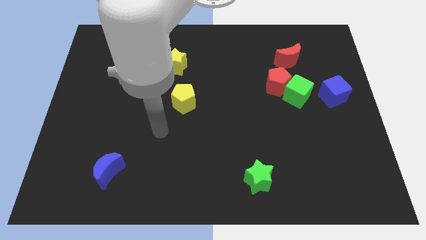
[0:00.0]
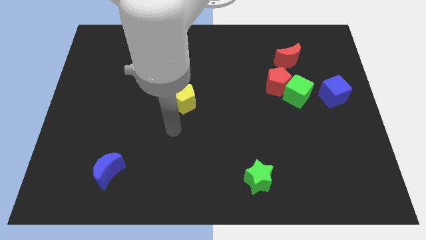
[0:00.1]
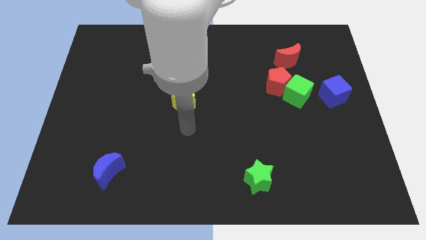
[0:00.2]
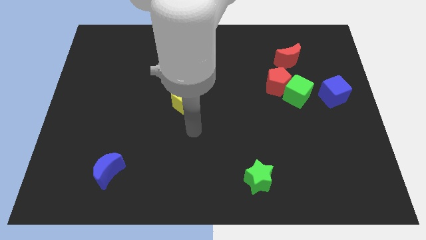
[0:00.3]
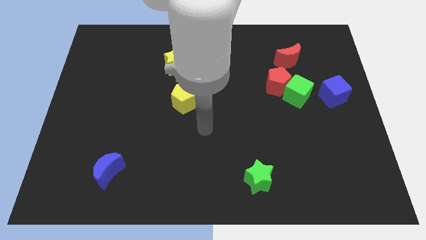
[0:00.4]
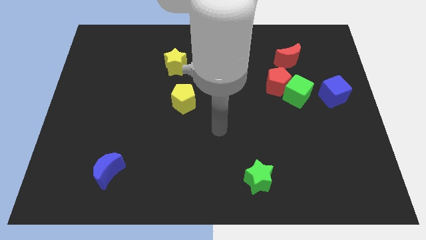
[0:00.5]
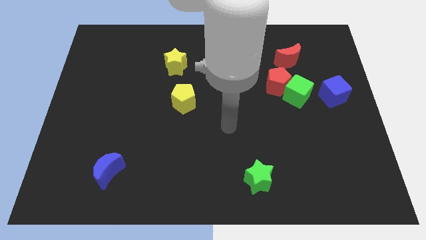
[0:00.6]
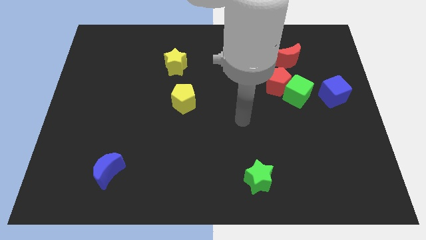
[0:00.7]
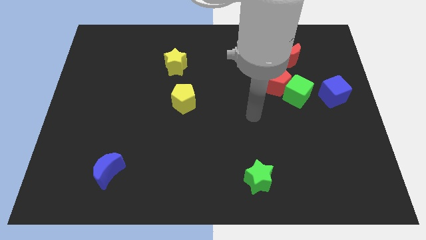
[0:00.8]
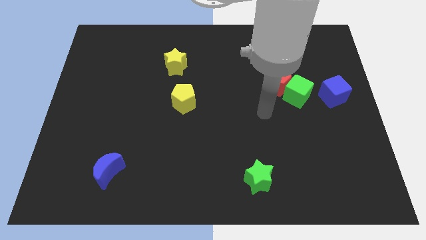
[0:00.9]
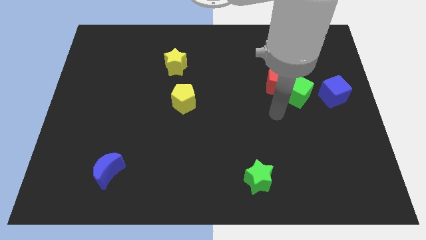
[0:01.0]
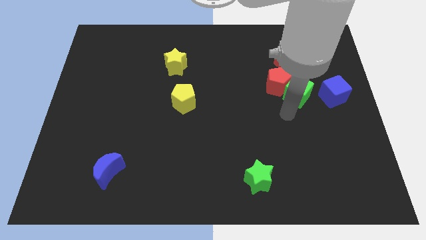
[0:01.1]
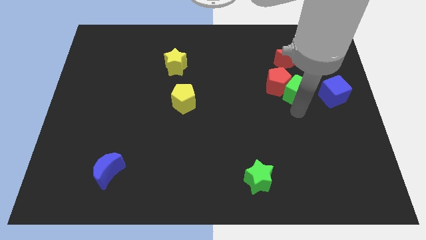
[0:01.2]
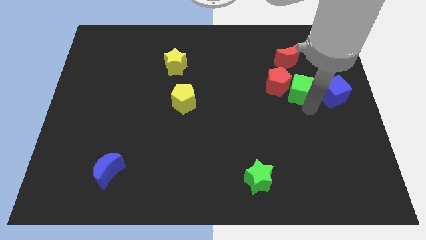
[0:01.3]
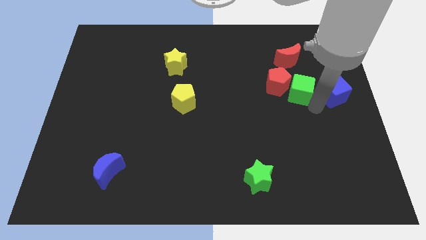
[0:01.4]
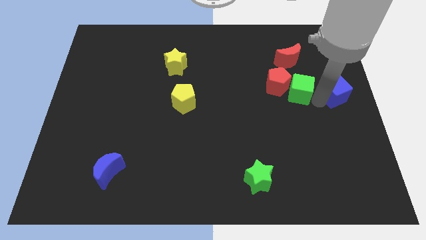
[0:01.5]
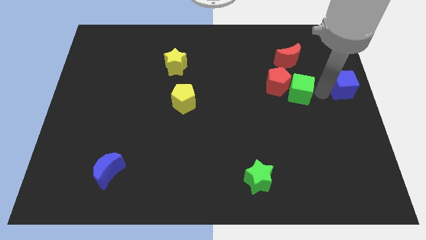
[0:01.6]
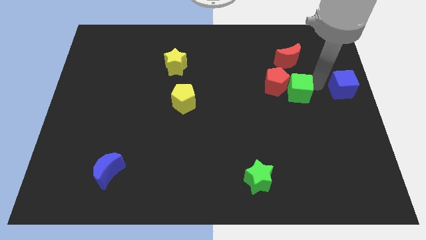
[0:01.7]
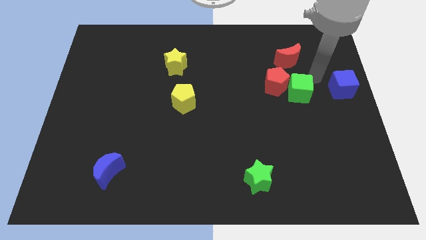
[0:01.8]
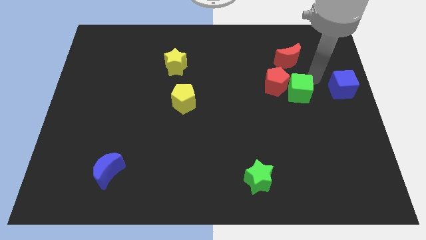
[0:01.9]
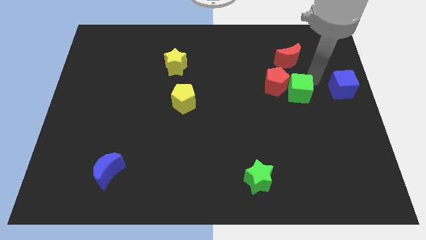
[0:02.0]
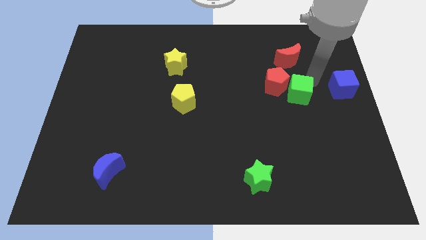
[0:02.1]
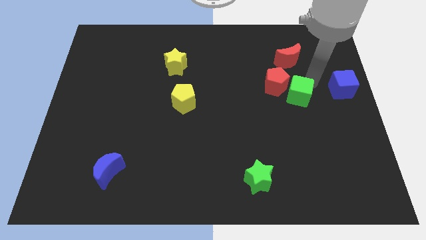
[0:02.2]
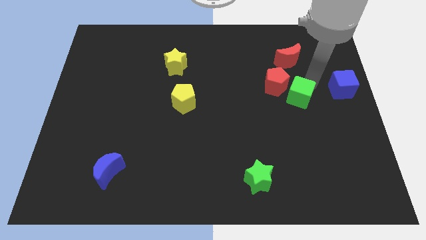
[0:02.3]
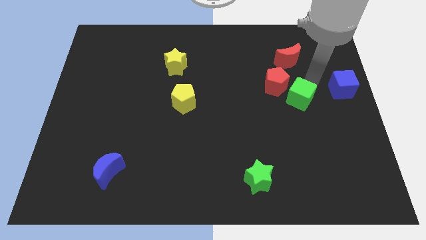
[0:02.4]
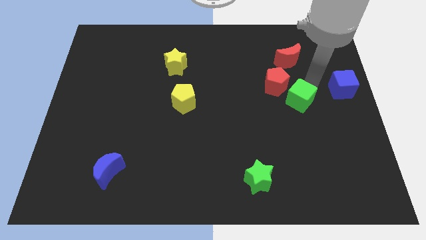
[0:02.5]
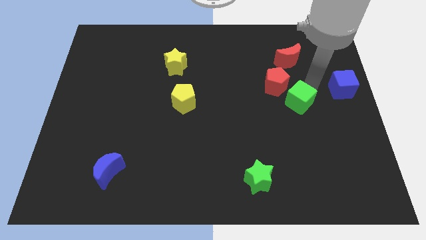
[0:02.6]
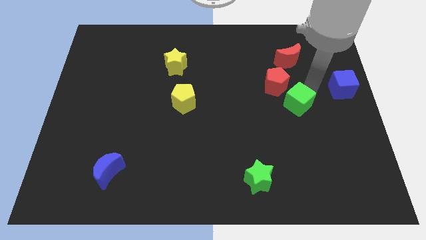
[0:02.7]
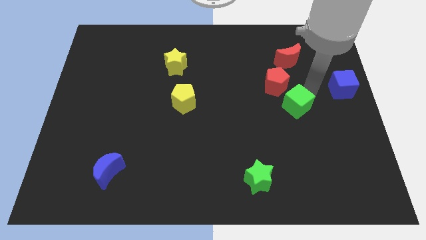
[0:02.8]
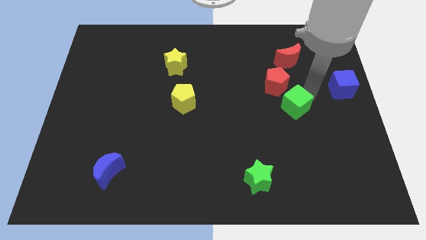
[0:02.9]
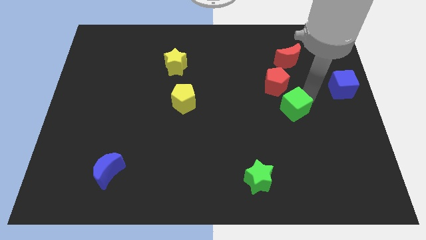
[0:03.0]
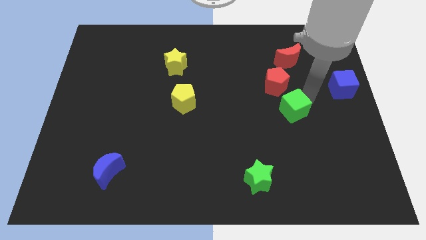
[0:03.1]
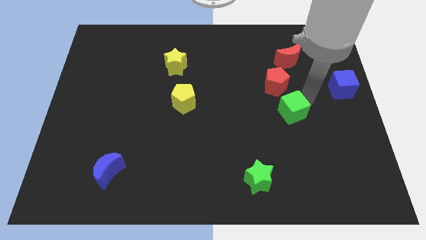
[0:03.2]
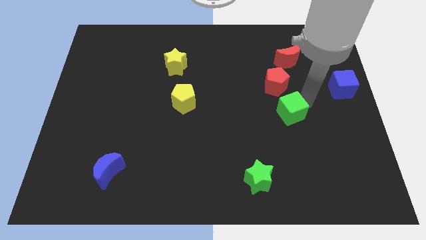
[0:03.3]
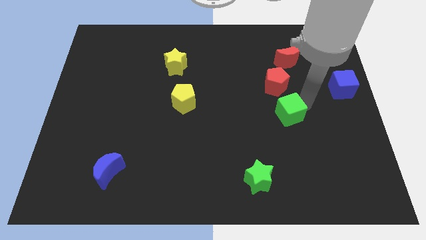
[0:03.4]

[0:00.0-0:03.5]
separate the green cube from the red pentagon and blue cube

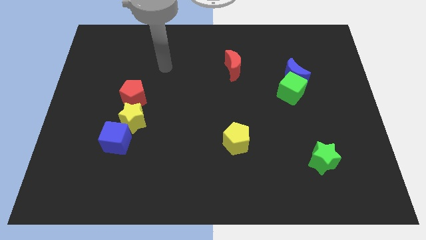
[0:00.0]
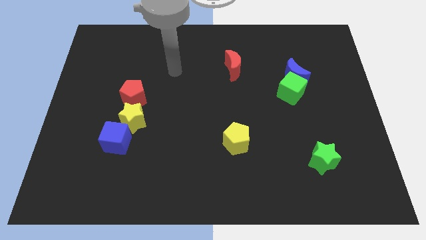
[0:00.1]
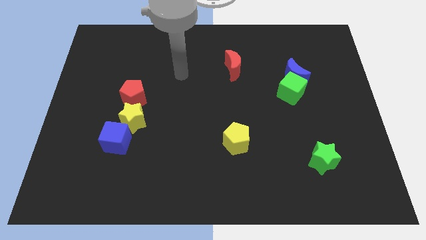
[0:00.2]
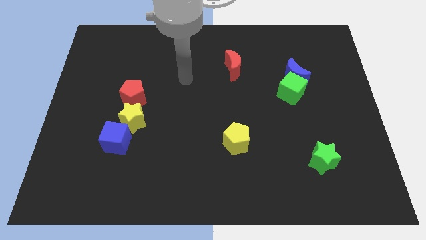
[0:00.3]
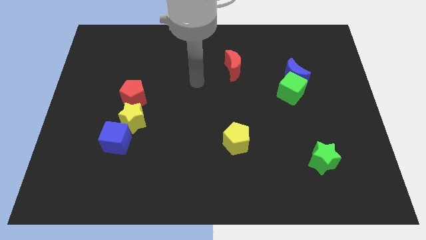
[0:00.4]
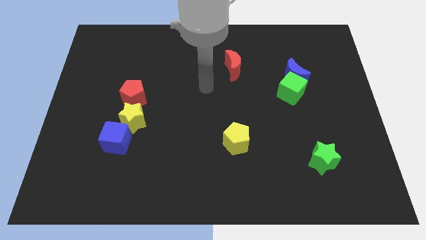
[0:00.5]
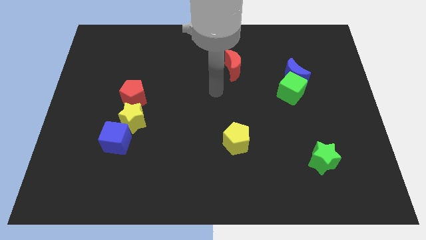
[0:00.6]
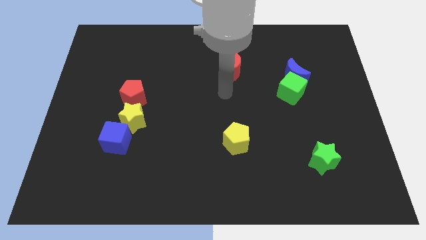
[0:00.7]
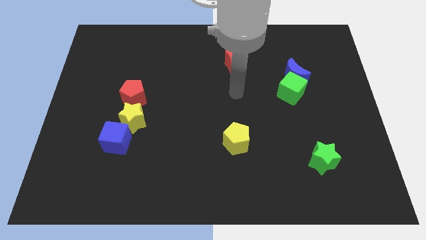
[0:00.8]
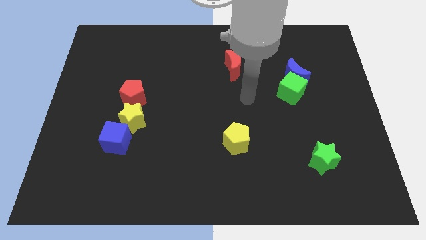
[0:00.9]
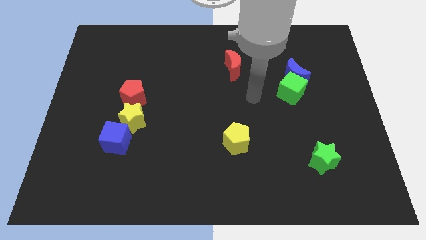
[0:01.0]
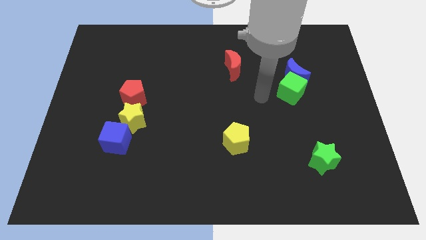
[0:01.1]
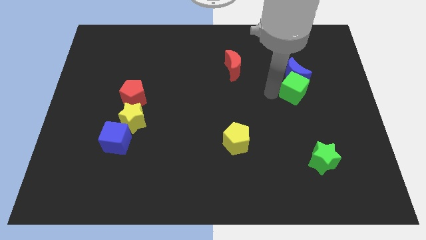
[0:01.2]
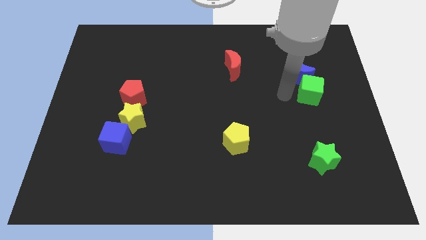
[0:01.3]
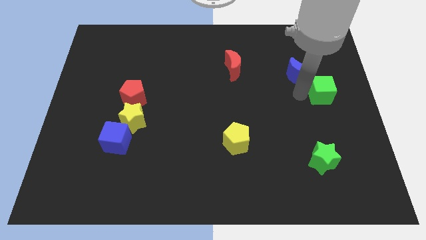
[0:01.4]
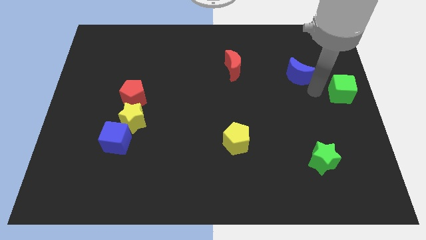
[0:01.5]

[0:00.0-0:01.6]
pull the blue moon apart from the green cube

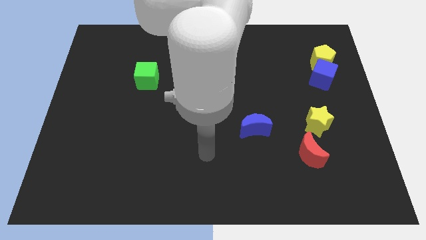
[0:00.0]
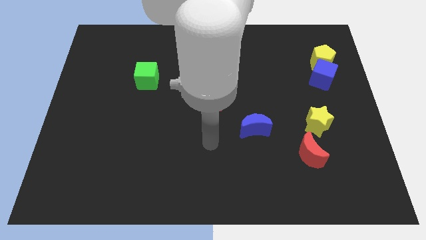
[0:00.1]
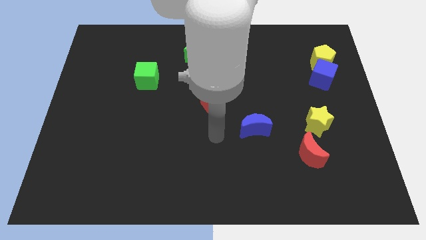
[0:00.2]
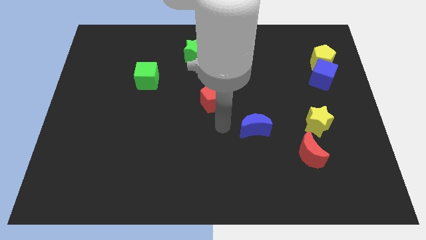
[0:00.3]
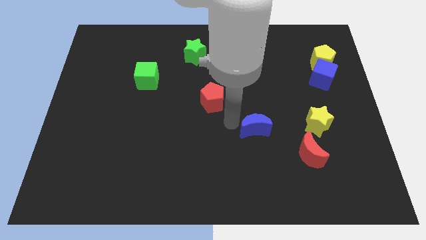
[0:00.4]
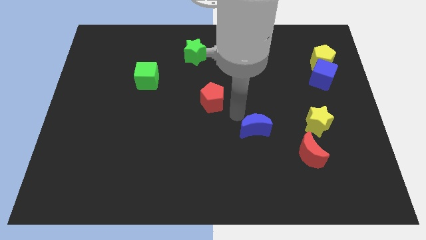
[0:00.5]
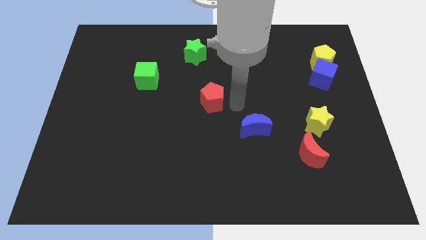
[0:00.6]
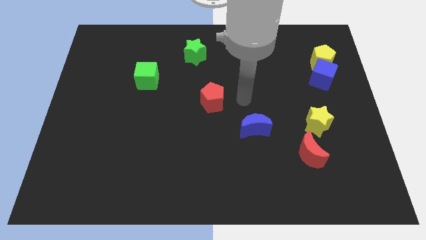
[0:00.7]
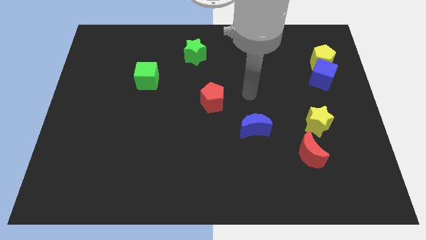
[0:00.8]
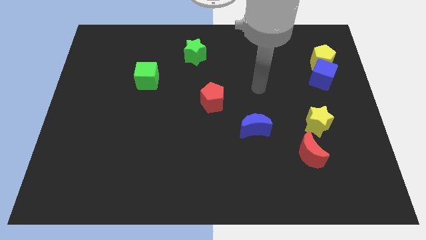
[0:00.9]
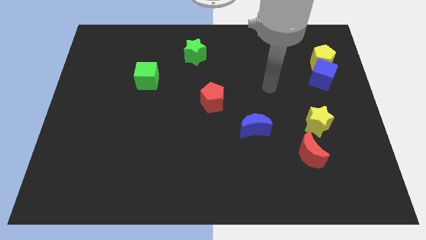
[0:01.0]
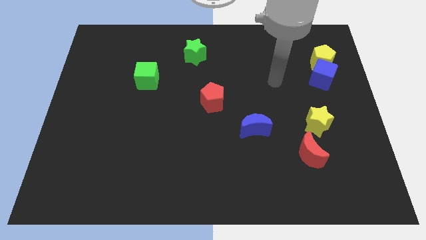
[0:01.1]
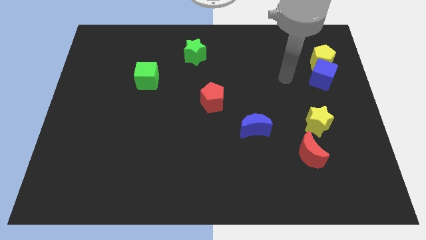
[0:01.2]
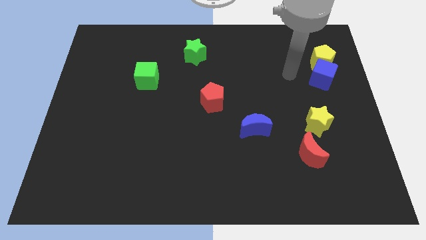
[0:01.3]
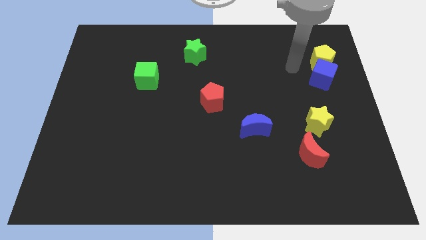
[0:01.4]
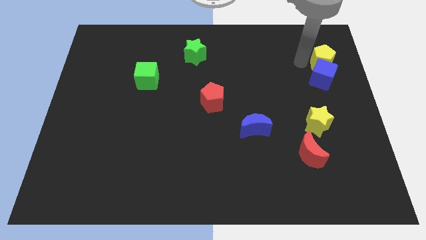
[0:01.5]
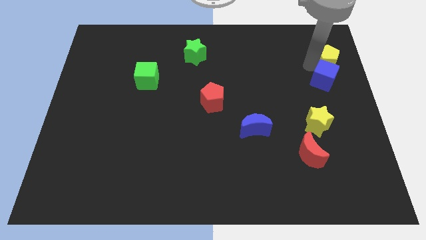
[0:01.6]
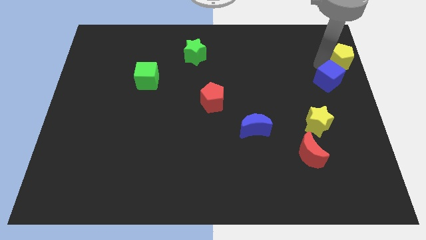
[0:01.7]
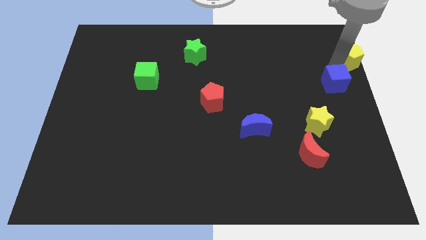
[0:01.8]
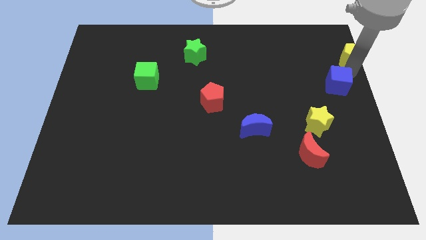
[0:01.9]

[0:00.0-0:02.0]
pull the blue cube apart from the yellow pentagon

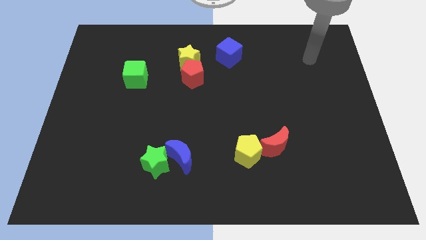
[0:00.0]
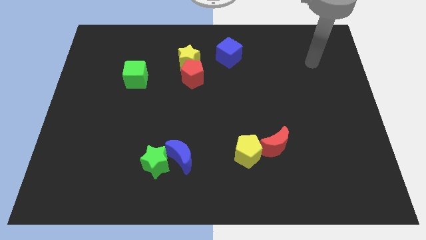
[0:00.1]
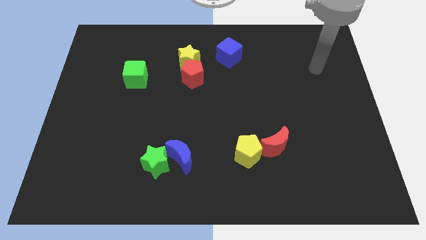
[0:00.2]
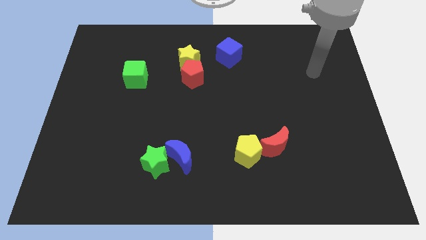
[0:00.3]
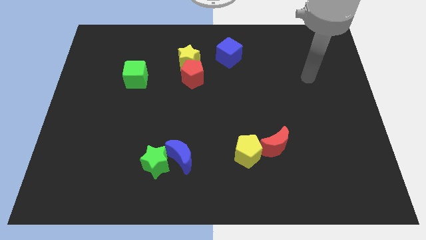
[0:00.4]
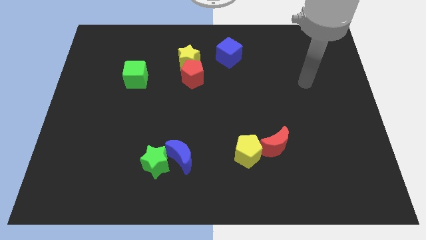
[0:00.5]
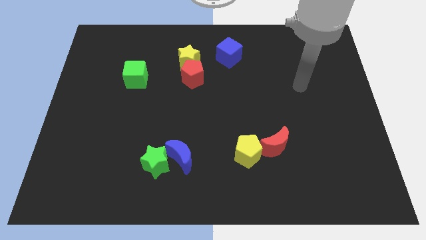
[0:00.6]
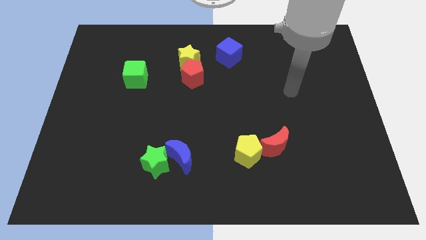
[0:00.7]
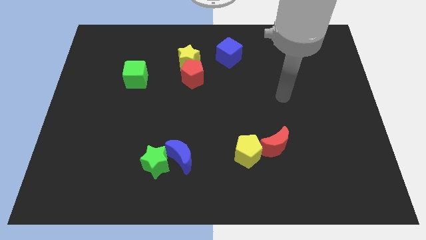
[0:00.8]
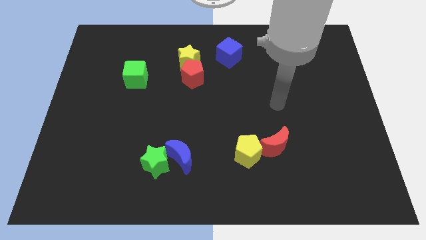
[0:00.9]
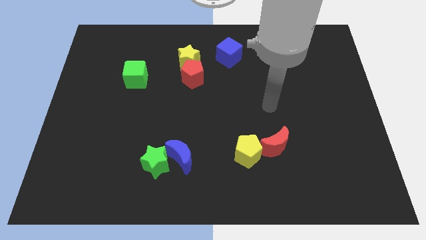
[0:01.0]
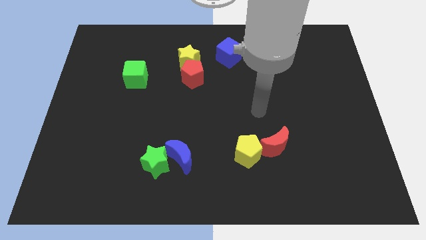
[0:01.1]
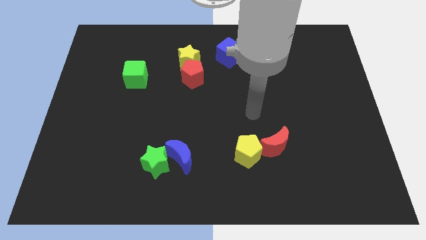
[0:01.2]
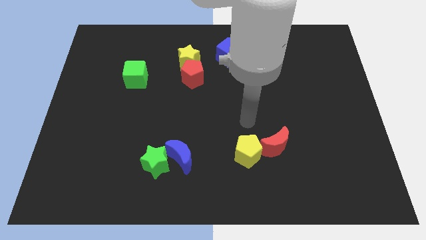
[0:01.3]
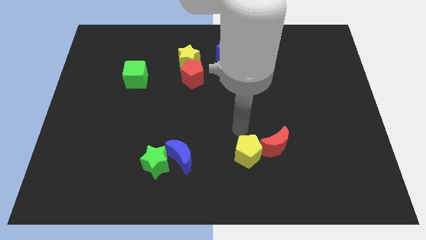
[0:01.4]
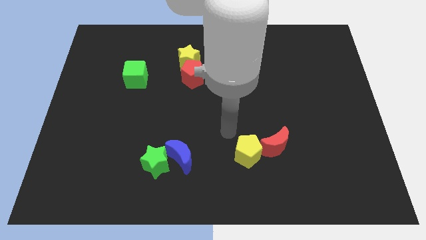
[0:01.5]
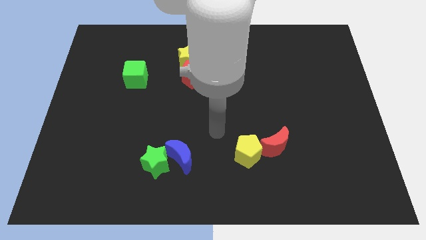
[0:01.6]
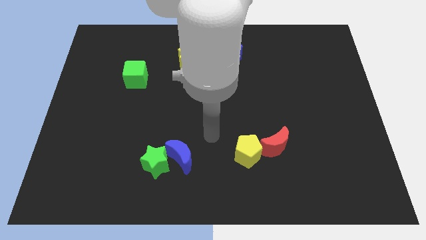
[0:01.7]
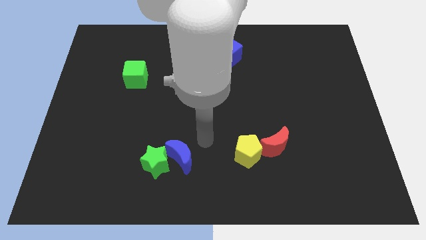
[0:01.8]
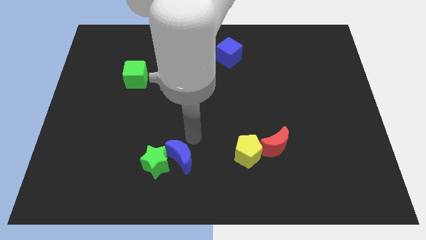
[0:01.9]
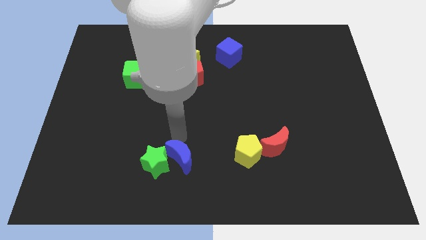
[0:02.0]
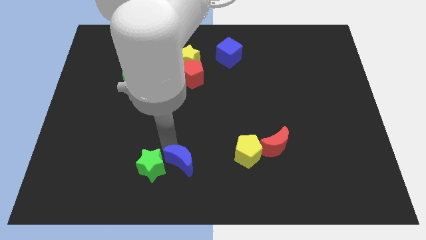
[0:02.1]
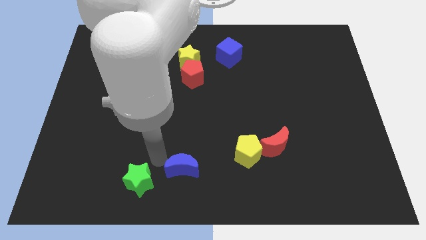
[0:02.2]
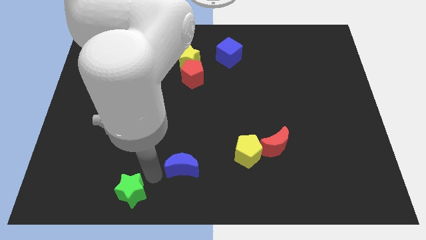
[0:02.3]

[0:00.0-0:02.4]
move the blue moon away from the green star
